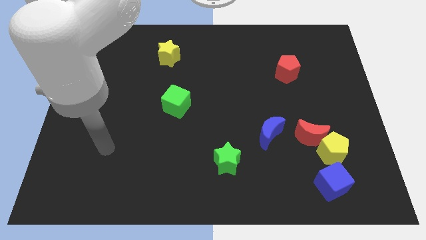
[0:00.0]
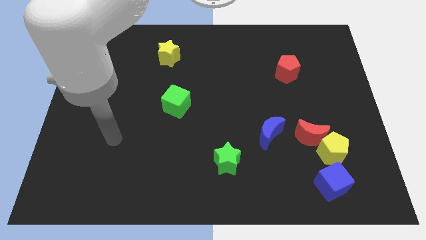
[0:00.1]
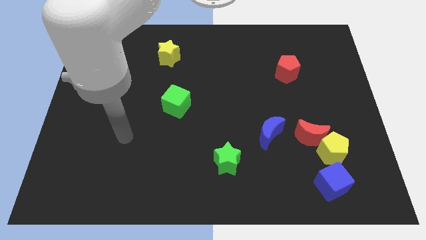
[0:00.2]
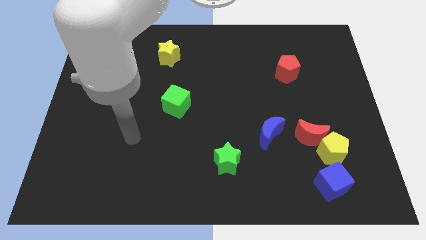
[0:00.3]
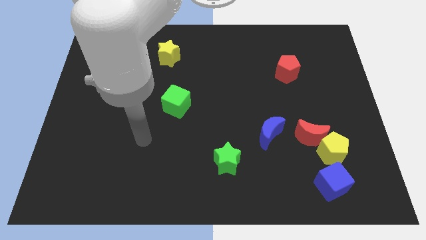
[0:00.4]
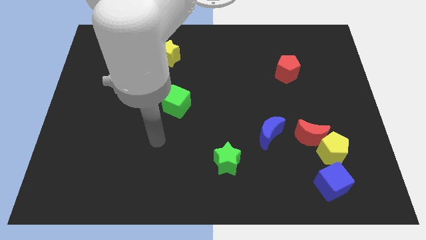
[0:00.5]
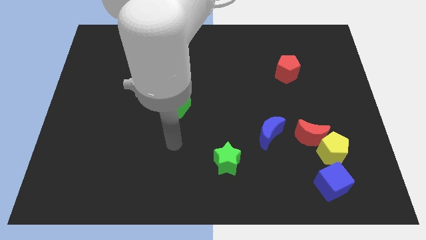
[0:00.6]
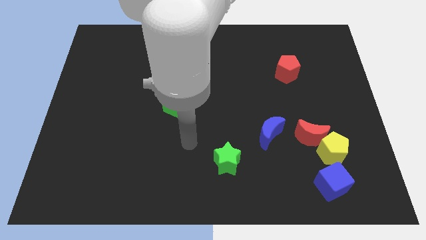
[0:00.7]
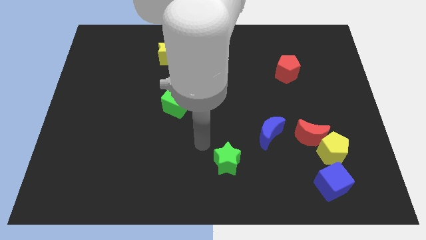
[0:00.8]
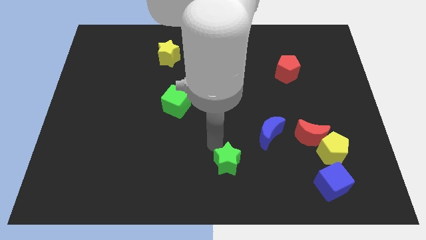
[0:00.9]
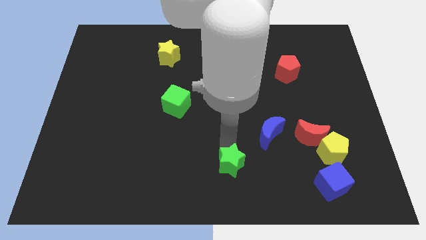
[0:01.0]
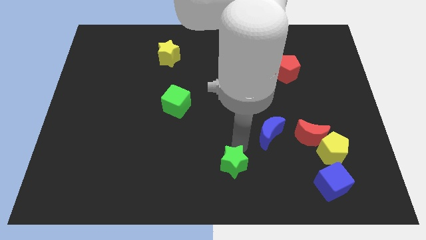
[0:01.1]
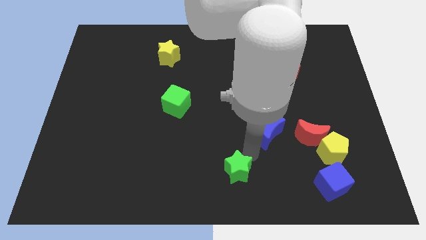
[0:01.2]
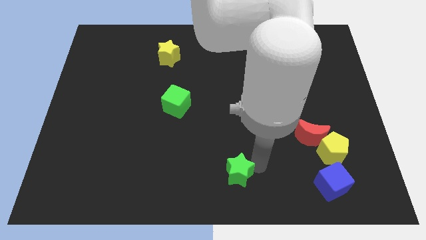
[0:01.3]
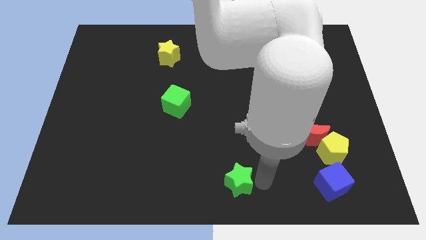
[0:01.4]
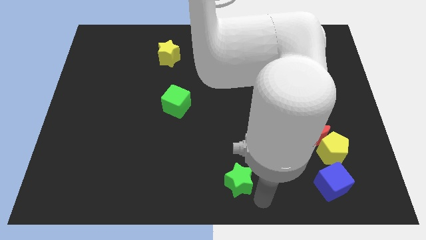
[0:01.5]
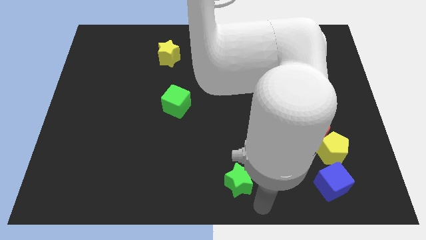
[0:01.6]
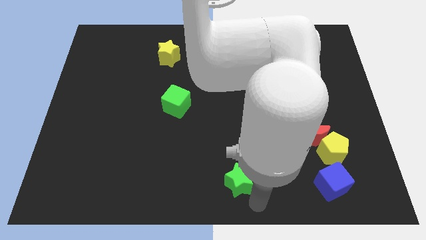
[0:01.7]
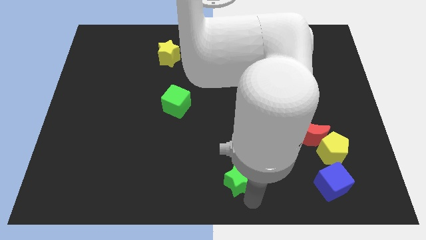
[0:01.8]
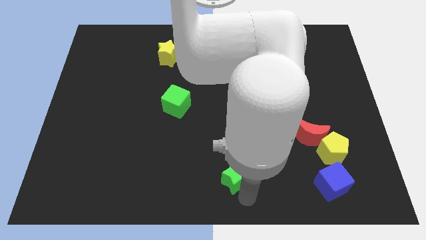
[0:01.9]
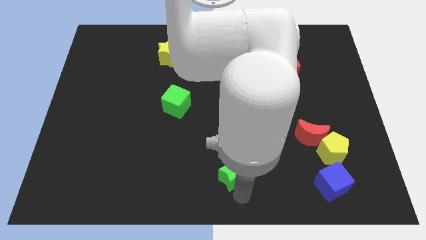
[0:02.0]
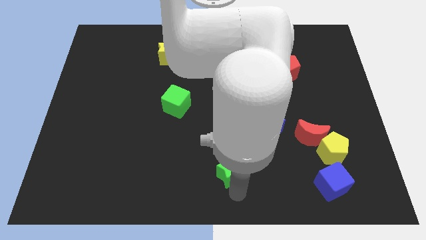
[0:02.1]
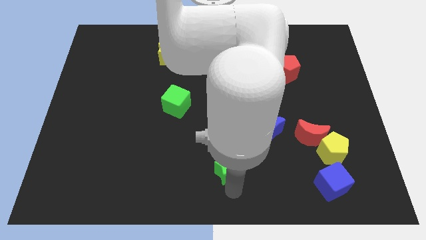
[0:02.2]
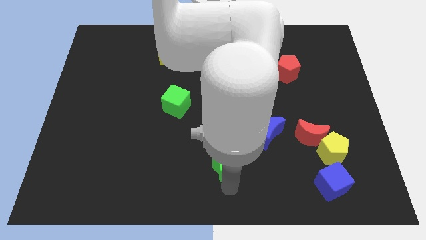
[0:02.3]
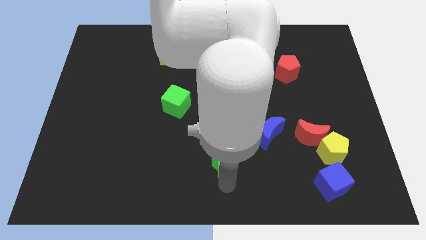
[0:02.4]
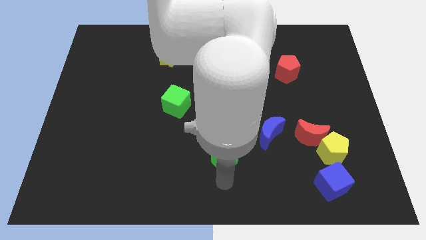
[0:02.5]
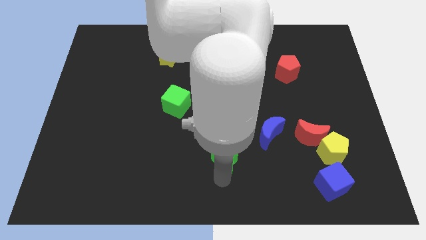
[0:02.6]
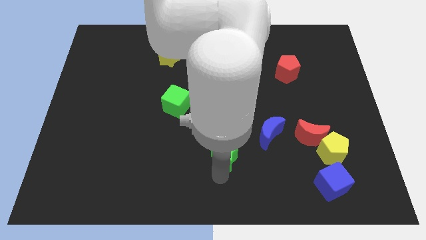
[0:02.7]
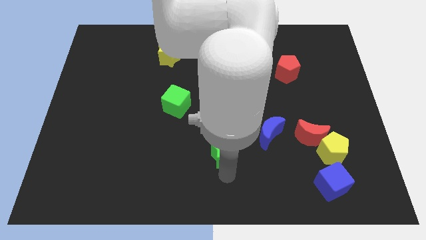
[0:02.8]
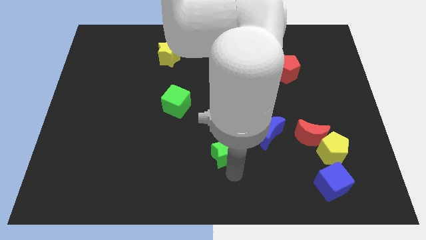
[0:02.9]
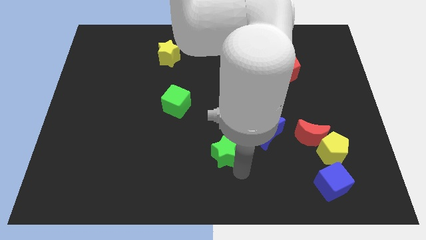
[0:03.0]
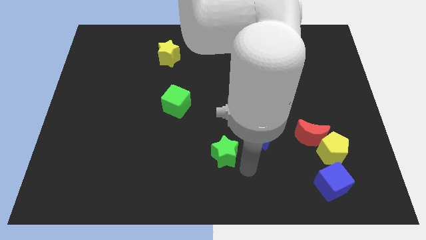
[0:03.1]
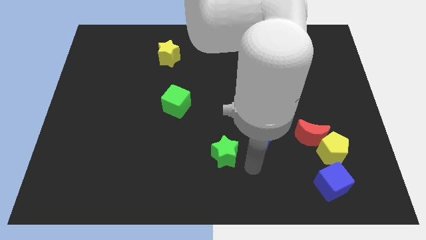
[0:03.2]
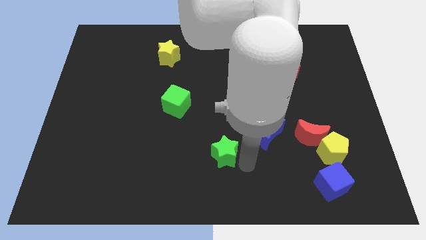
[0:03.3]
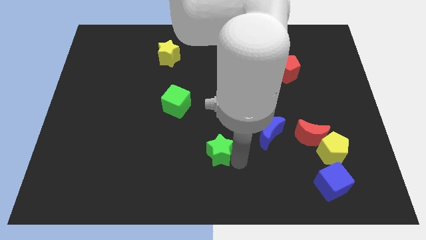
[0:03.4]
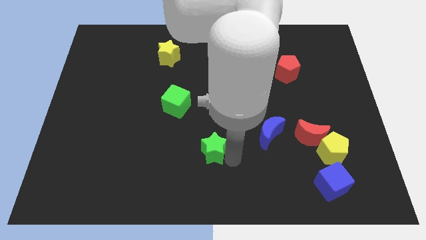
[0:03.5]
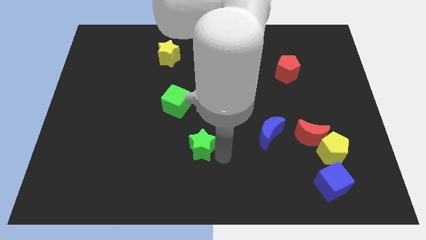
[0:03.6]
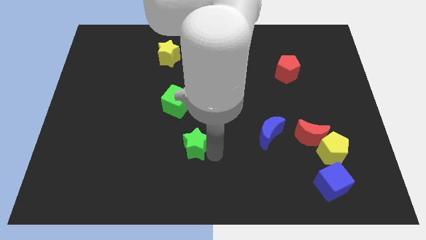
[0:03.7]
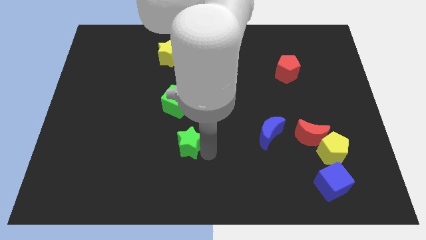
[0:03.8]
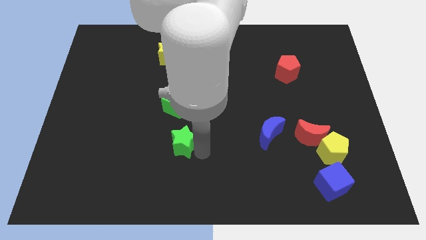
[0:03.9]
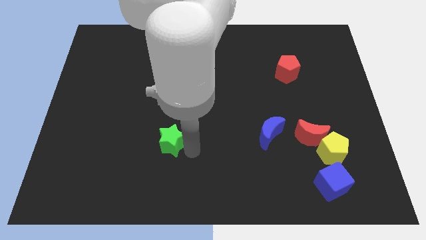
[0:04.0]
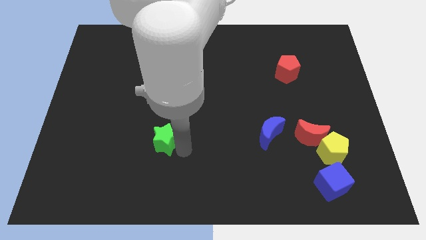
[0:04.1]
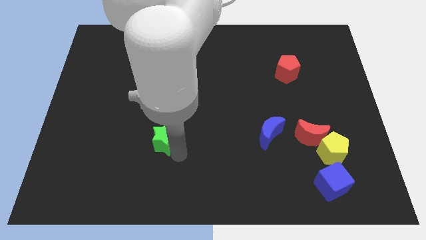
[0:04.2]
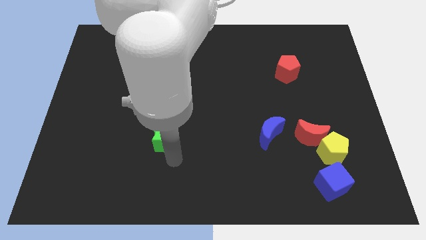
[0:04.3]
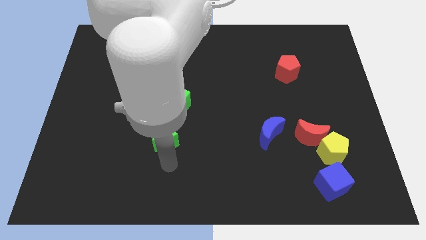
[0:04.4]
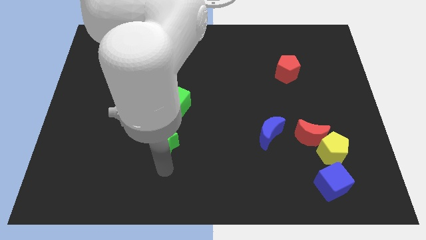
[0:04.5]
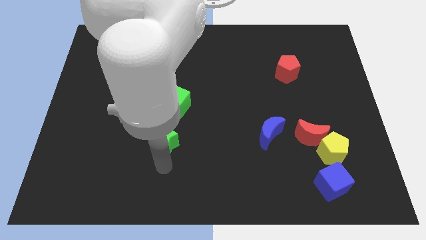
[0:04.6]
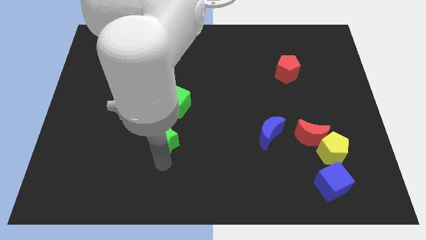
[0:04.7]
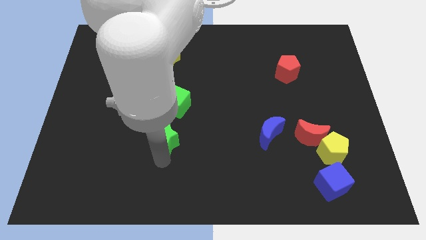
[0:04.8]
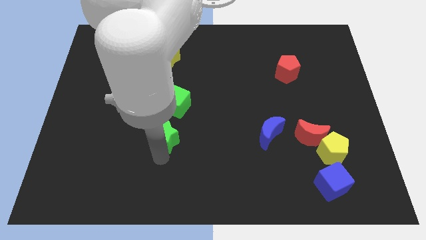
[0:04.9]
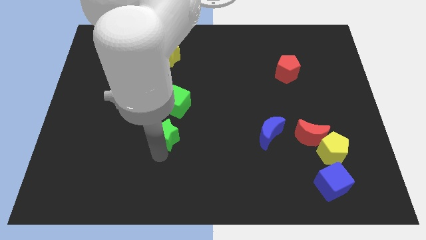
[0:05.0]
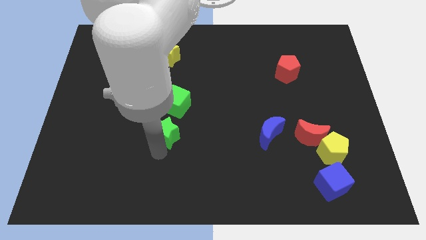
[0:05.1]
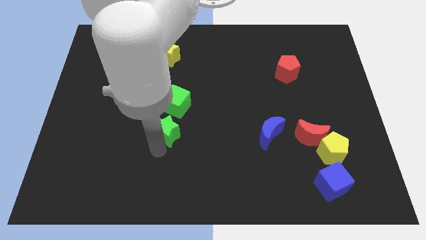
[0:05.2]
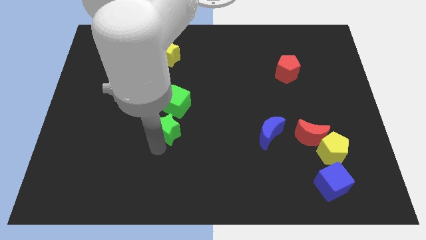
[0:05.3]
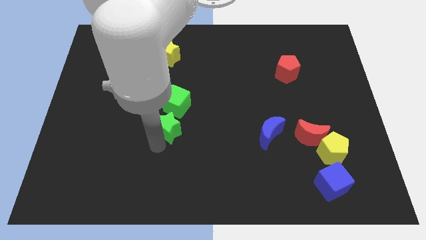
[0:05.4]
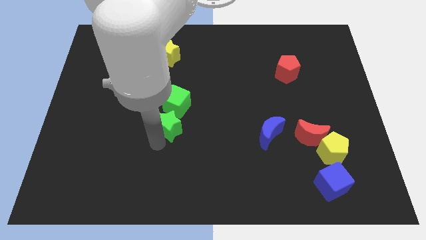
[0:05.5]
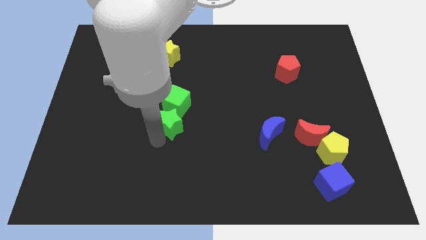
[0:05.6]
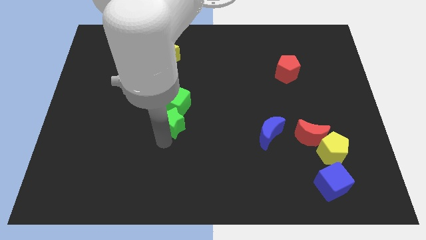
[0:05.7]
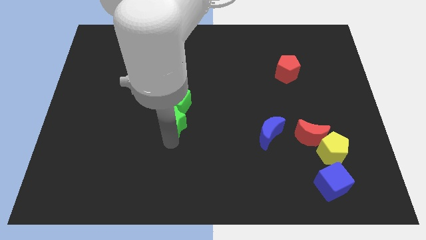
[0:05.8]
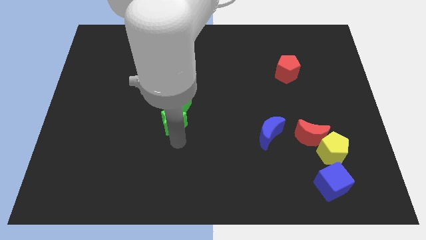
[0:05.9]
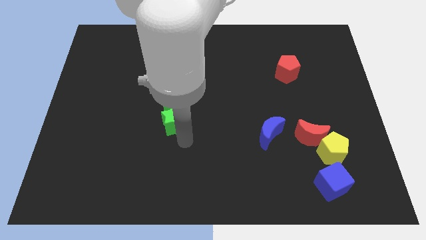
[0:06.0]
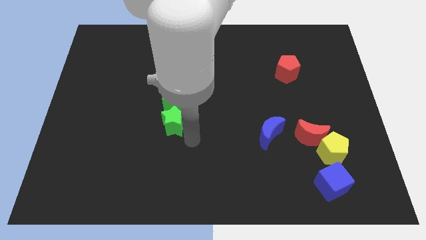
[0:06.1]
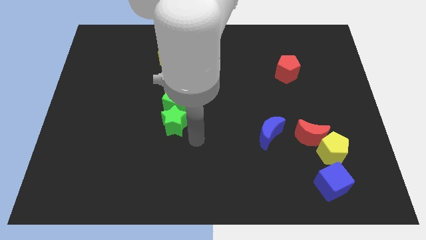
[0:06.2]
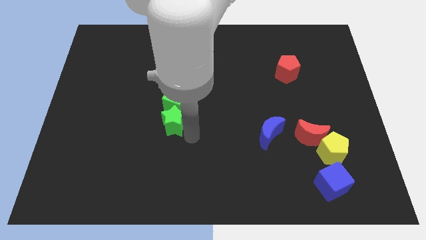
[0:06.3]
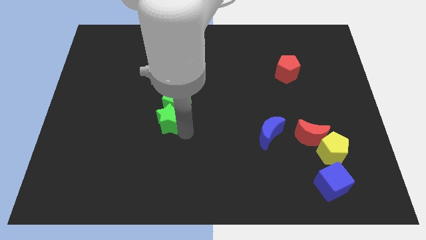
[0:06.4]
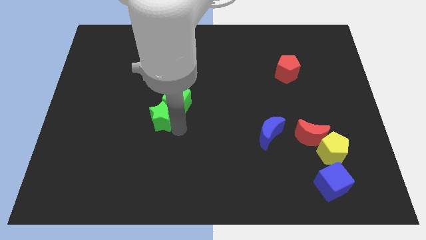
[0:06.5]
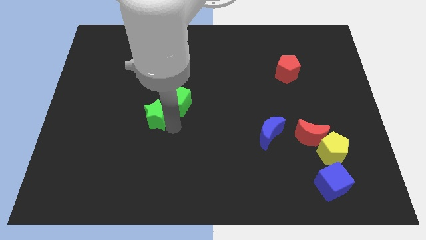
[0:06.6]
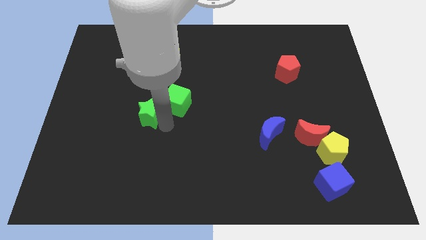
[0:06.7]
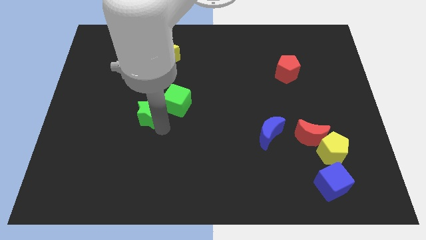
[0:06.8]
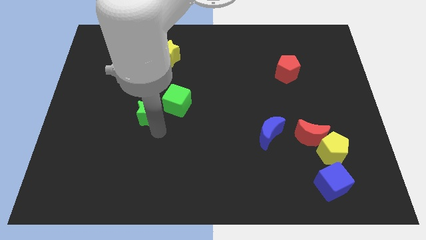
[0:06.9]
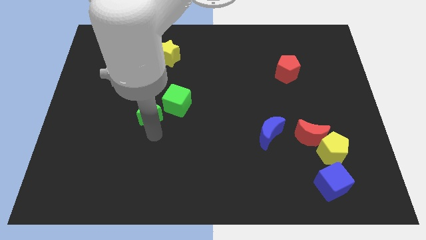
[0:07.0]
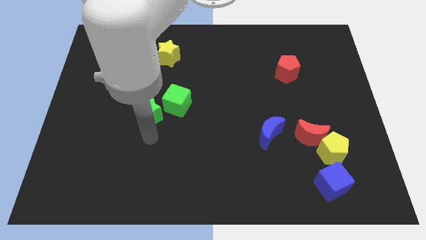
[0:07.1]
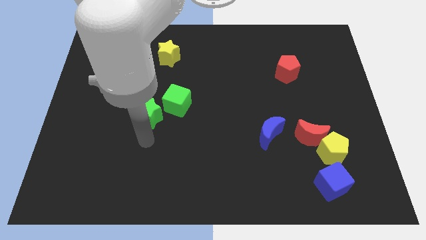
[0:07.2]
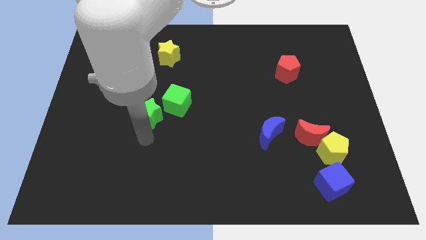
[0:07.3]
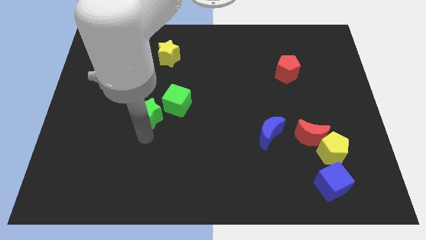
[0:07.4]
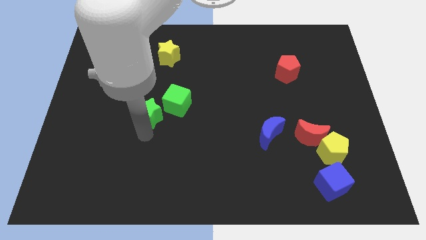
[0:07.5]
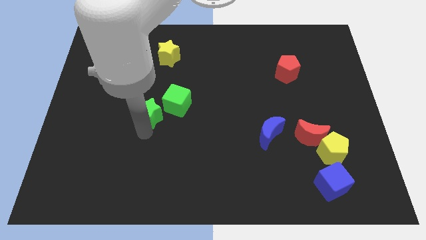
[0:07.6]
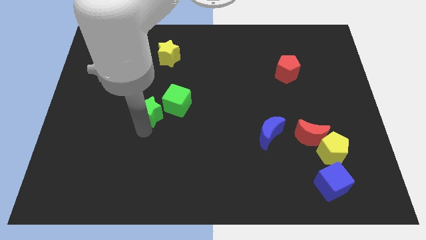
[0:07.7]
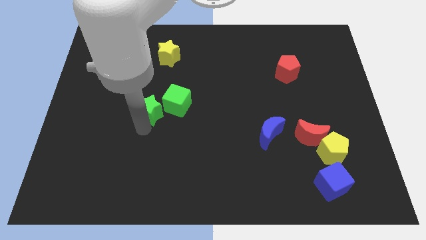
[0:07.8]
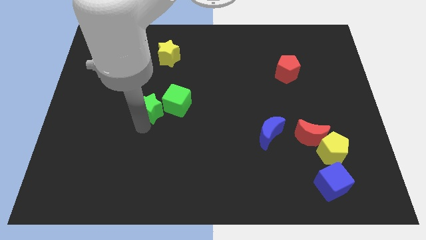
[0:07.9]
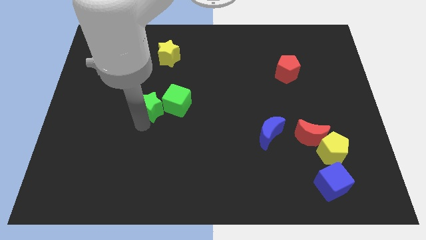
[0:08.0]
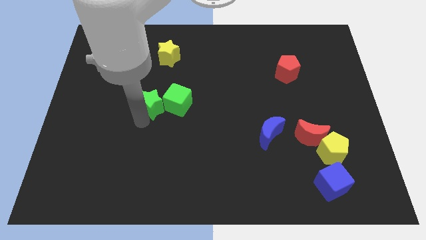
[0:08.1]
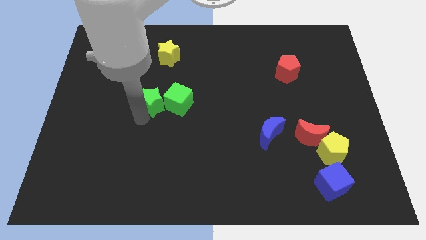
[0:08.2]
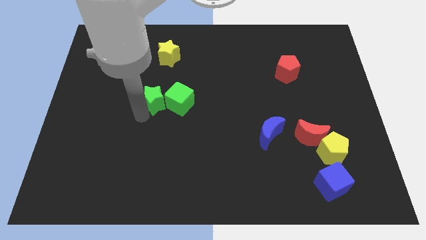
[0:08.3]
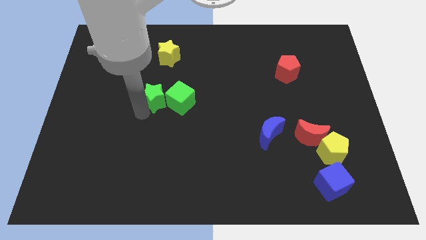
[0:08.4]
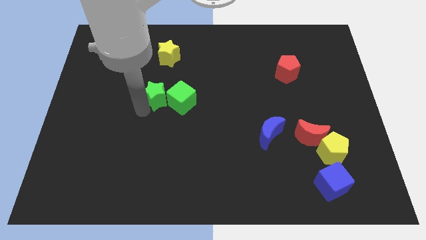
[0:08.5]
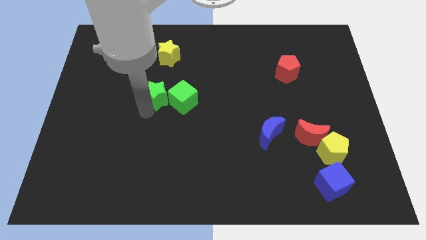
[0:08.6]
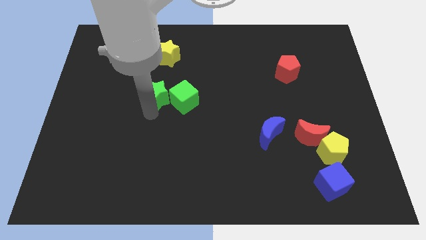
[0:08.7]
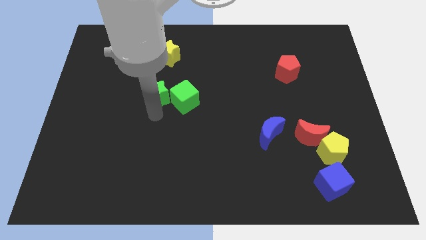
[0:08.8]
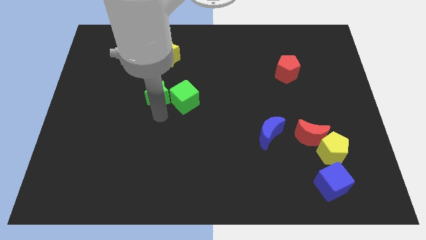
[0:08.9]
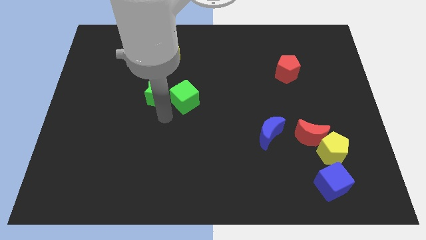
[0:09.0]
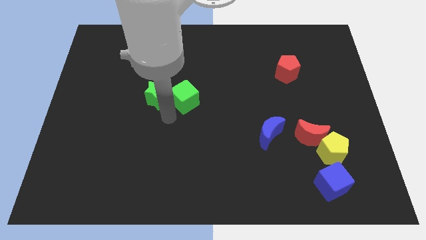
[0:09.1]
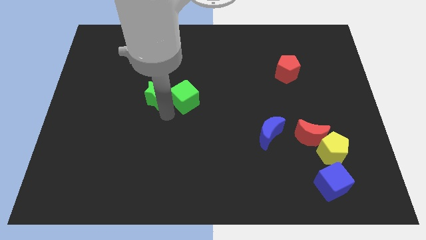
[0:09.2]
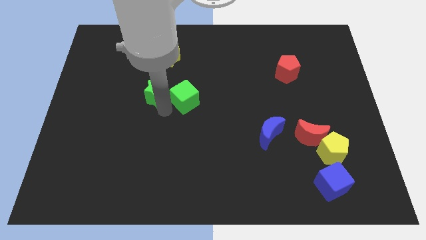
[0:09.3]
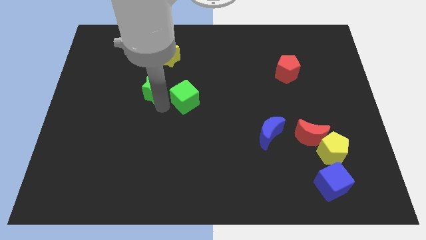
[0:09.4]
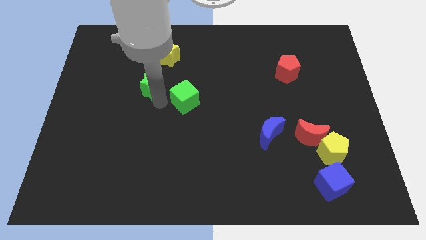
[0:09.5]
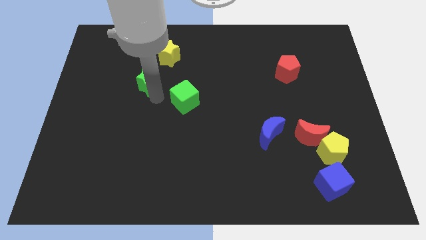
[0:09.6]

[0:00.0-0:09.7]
put the green star to the bottom left side of the yellow star
